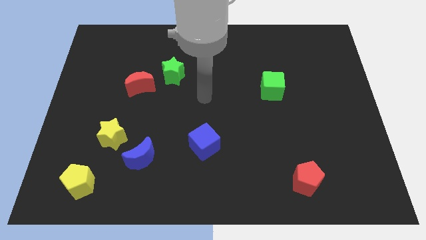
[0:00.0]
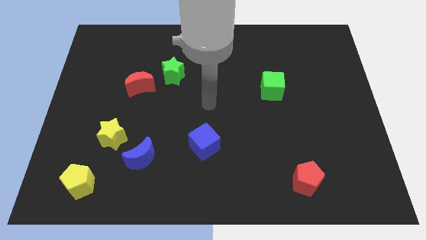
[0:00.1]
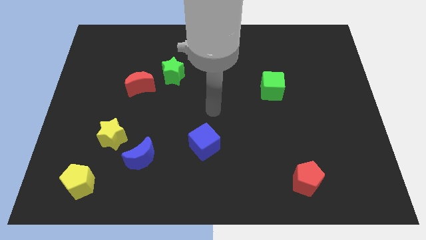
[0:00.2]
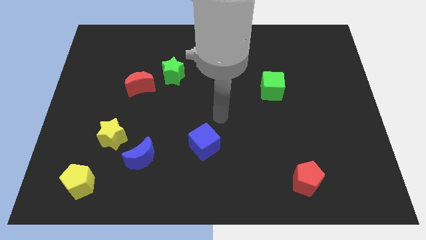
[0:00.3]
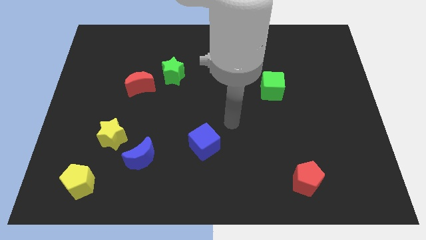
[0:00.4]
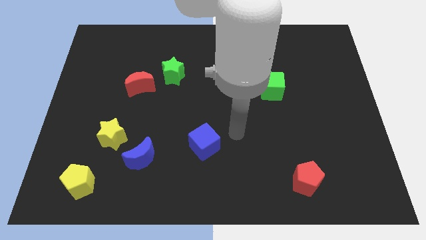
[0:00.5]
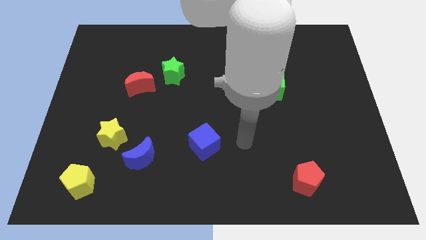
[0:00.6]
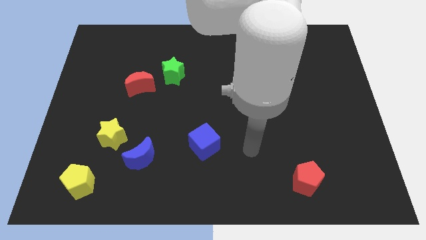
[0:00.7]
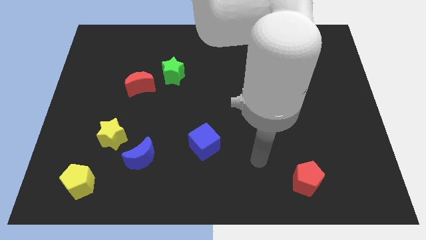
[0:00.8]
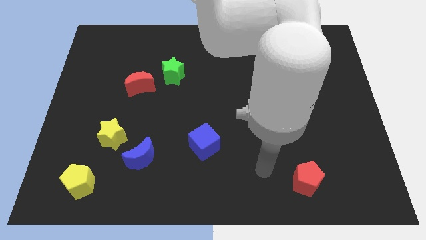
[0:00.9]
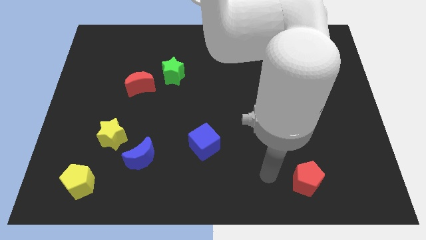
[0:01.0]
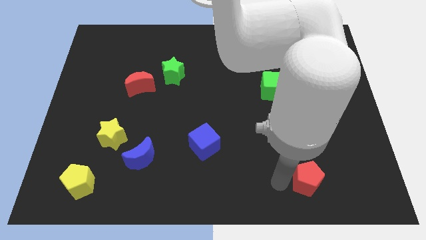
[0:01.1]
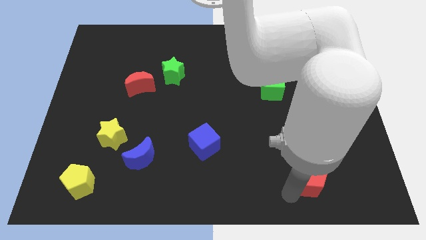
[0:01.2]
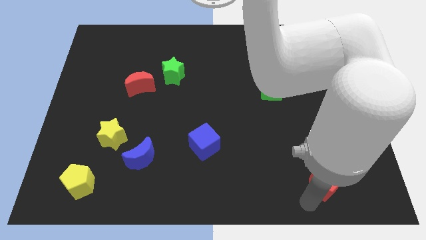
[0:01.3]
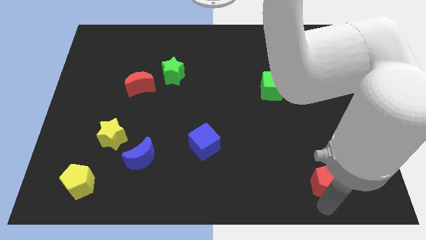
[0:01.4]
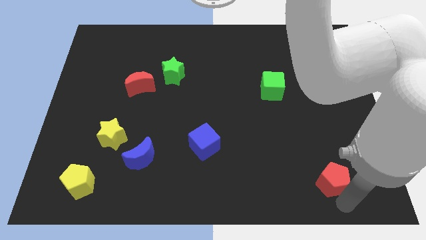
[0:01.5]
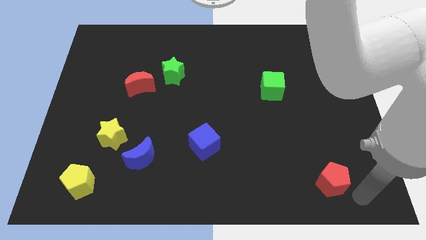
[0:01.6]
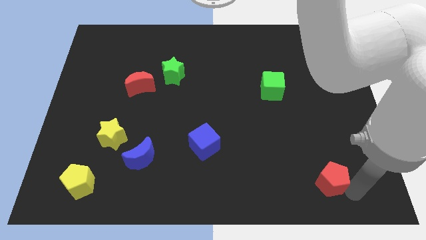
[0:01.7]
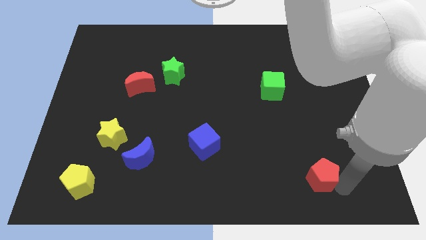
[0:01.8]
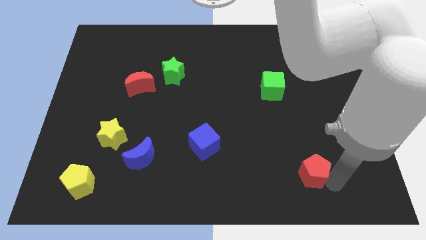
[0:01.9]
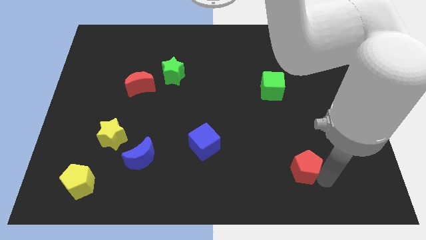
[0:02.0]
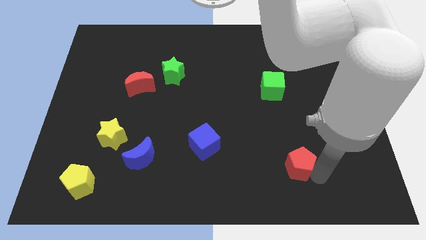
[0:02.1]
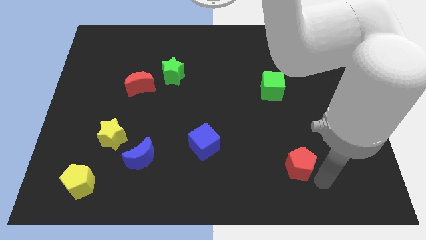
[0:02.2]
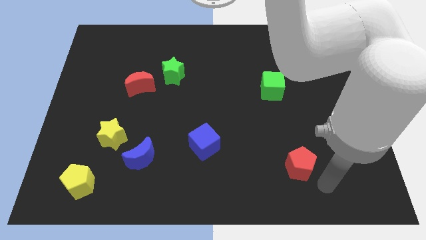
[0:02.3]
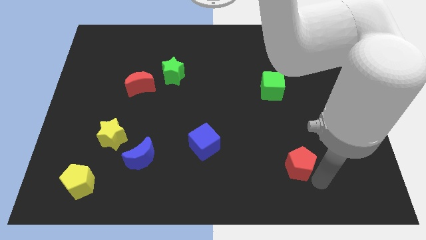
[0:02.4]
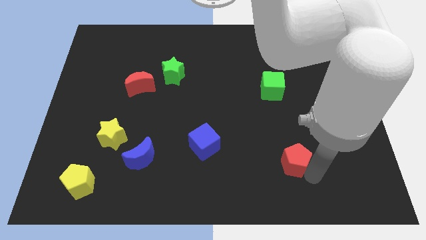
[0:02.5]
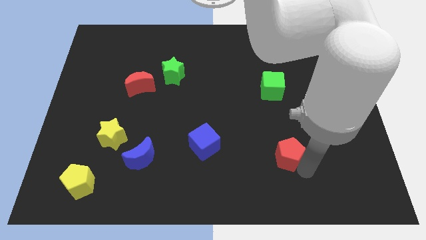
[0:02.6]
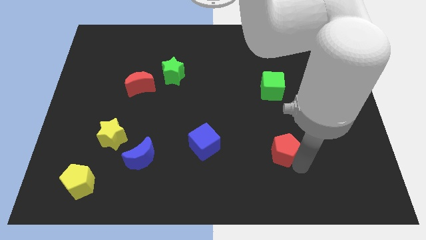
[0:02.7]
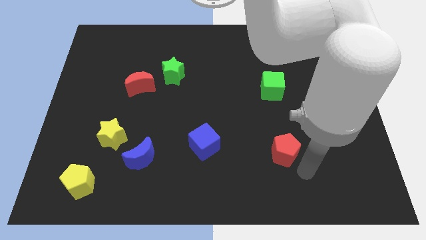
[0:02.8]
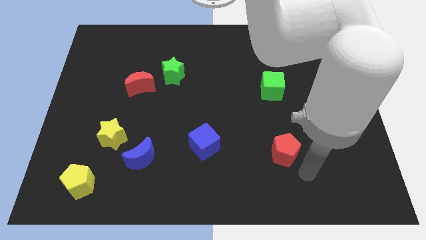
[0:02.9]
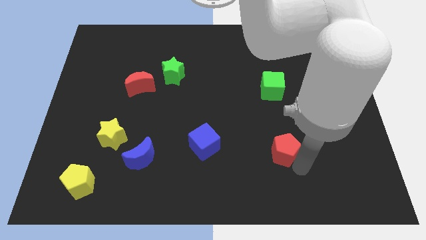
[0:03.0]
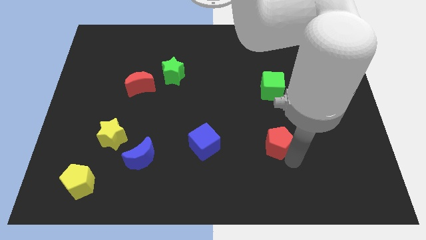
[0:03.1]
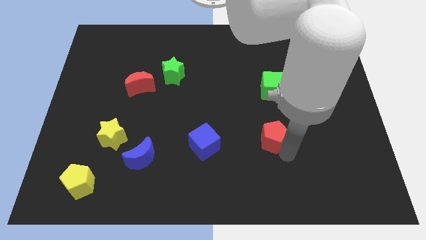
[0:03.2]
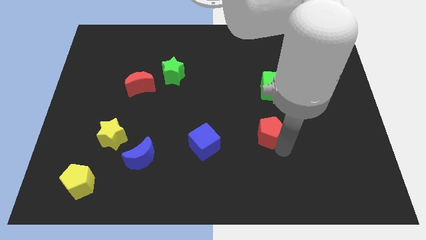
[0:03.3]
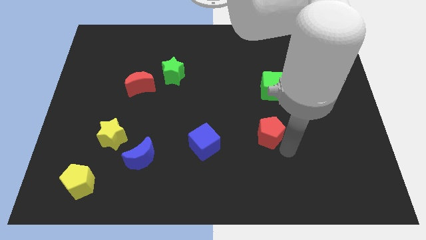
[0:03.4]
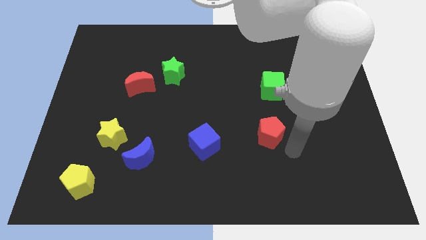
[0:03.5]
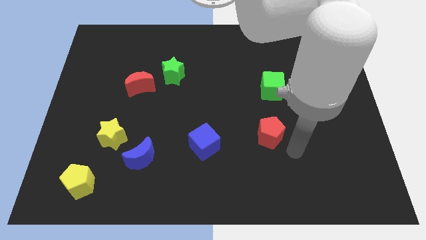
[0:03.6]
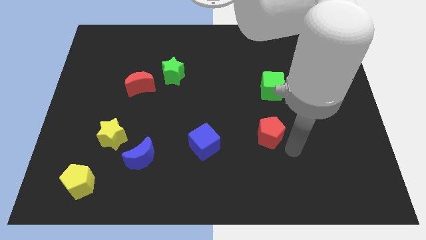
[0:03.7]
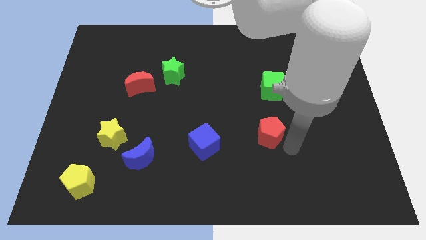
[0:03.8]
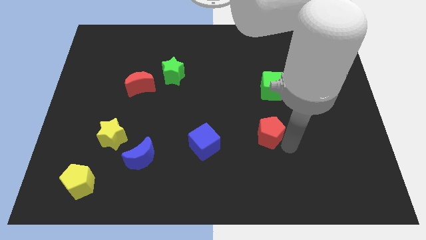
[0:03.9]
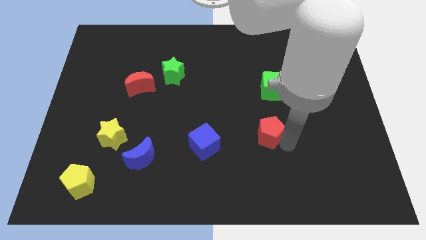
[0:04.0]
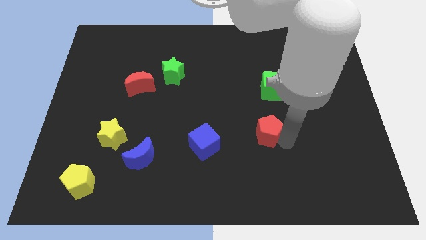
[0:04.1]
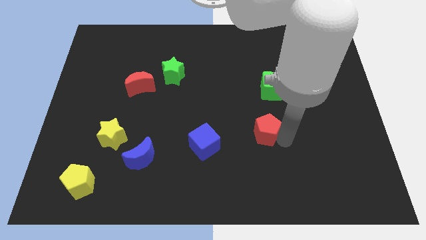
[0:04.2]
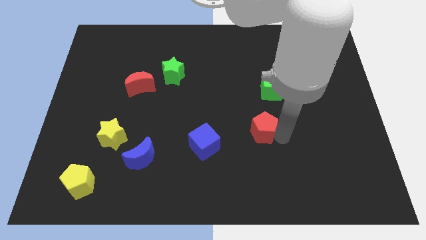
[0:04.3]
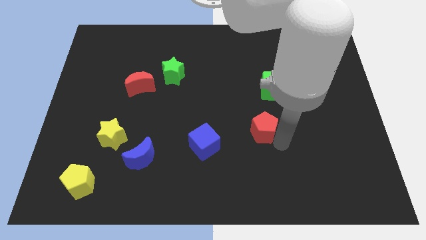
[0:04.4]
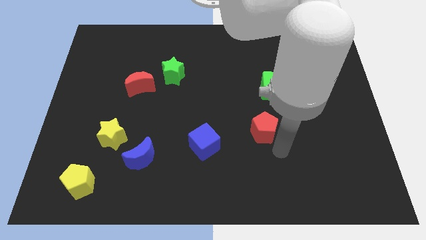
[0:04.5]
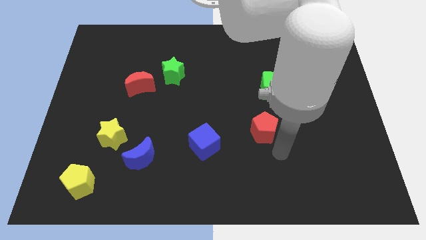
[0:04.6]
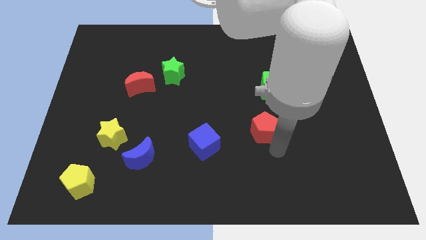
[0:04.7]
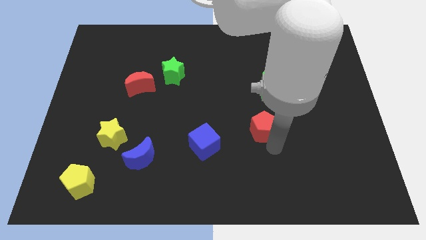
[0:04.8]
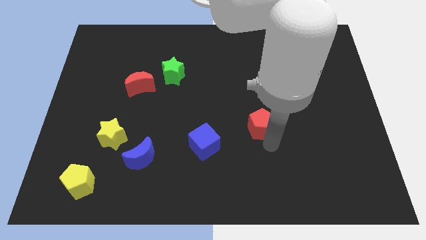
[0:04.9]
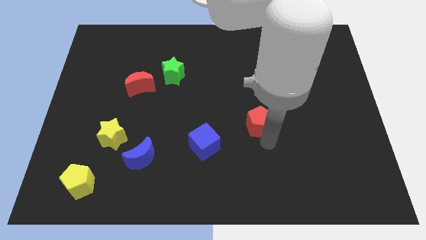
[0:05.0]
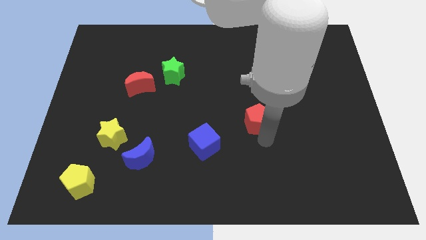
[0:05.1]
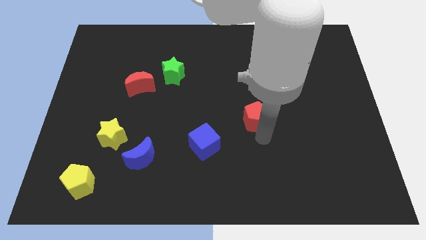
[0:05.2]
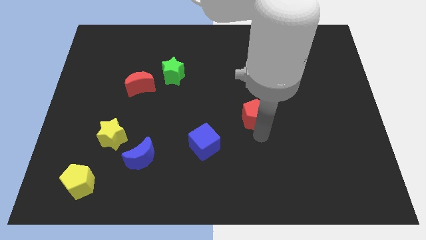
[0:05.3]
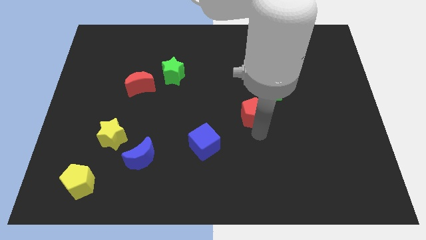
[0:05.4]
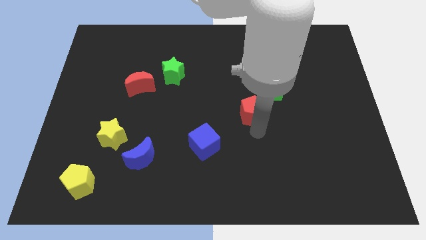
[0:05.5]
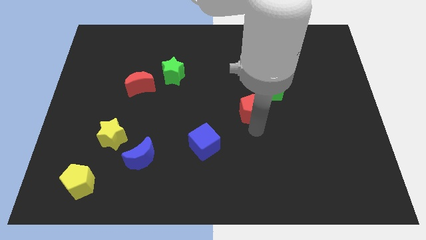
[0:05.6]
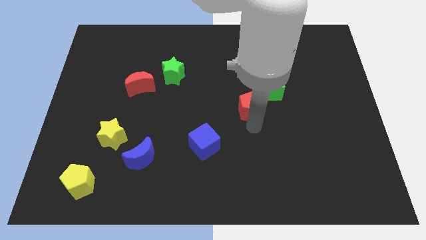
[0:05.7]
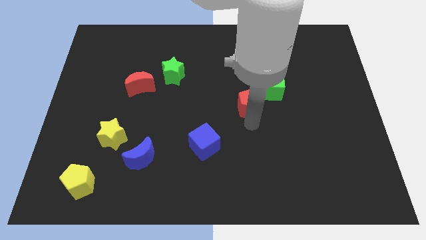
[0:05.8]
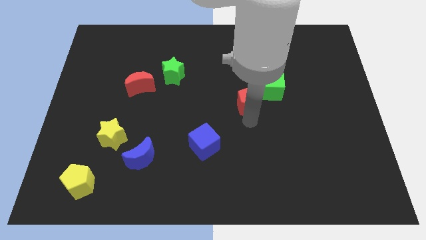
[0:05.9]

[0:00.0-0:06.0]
push the red pentagon just left of the green cube
